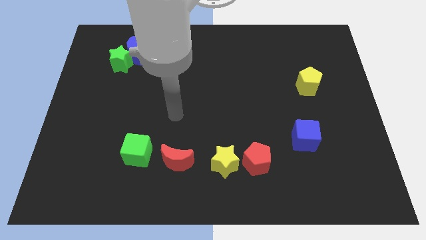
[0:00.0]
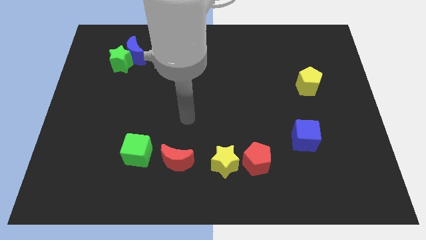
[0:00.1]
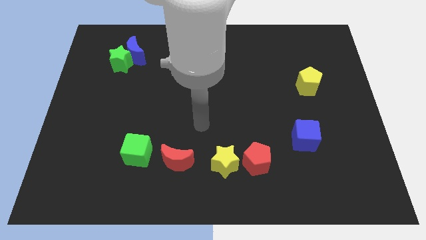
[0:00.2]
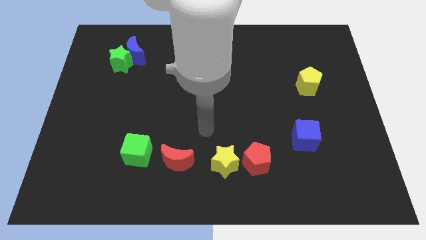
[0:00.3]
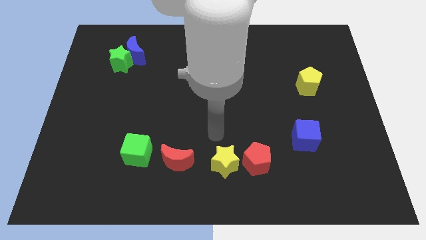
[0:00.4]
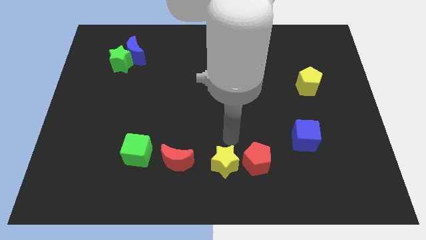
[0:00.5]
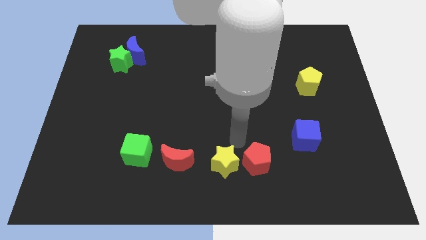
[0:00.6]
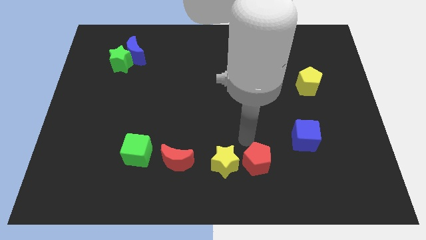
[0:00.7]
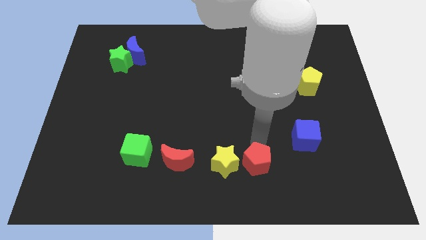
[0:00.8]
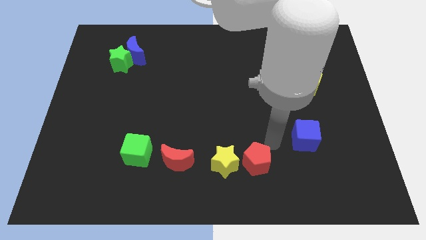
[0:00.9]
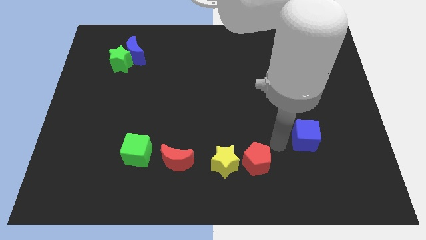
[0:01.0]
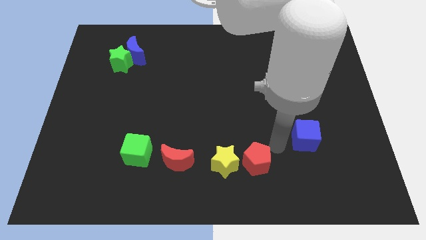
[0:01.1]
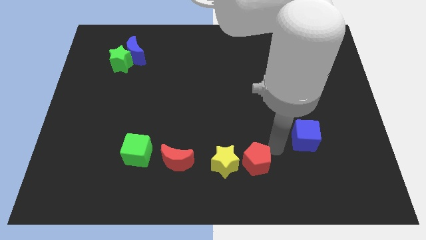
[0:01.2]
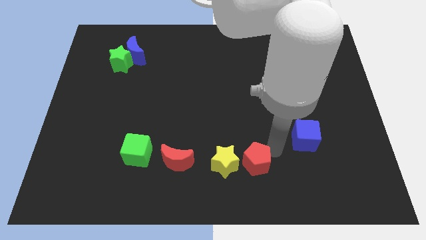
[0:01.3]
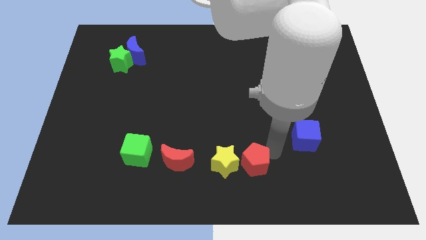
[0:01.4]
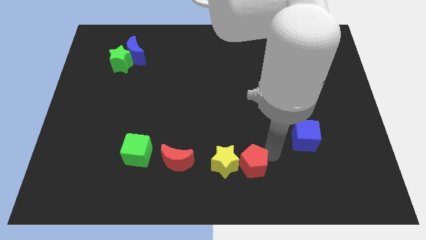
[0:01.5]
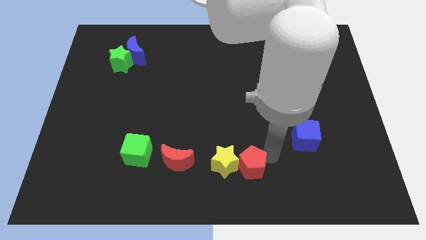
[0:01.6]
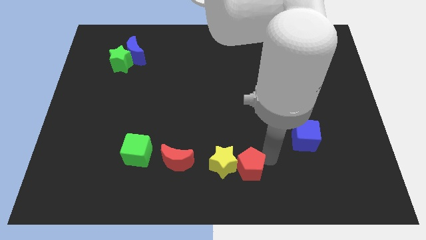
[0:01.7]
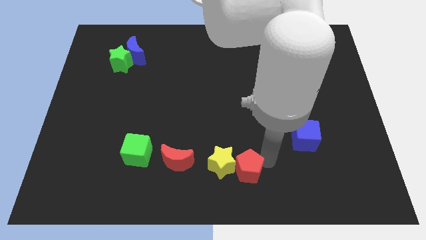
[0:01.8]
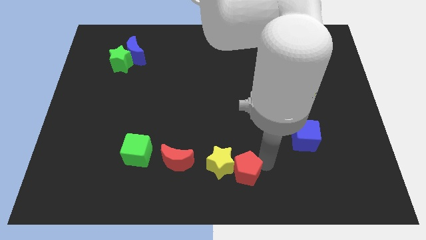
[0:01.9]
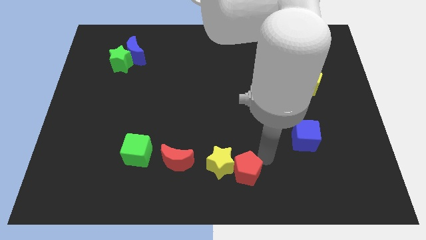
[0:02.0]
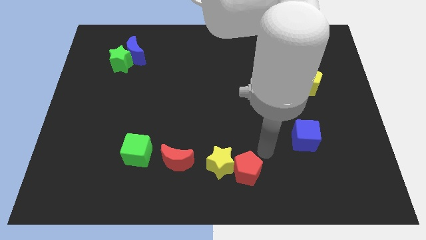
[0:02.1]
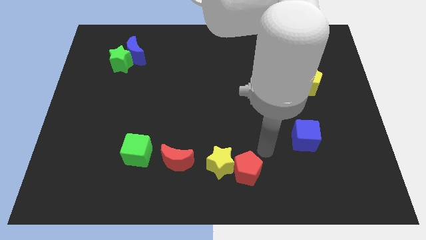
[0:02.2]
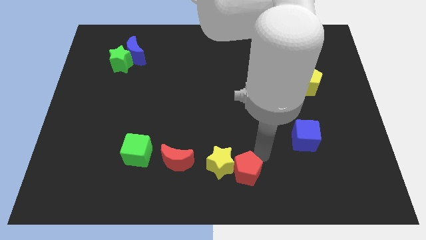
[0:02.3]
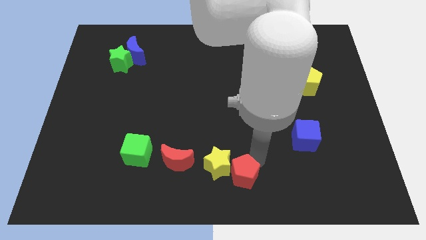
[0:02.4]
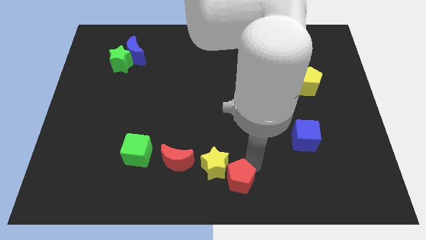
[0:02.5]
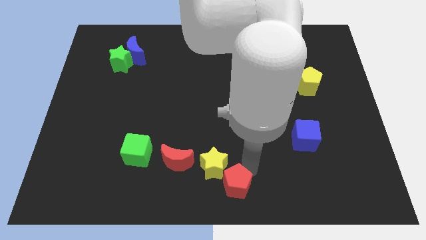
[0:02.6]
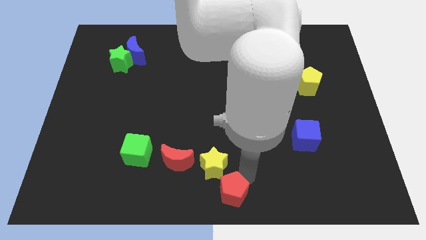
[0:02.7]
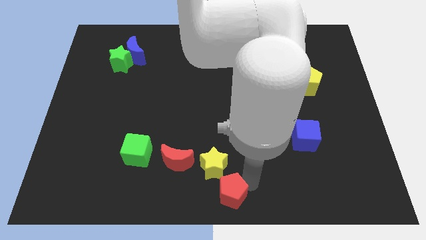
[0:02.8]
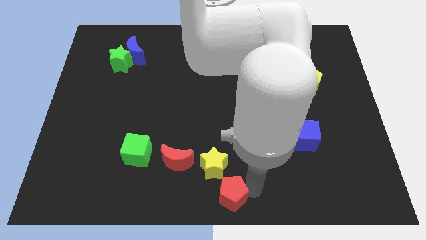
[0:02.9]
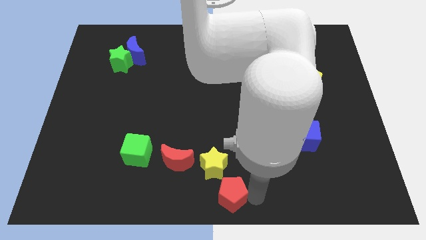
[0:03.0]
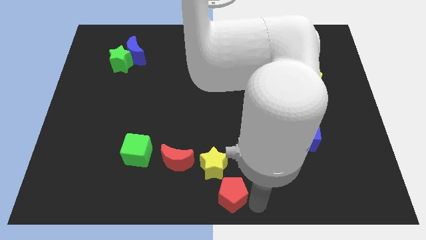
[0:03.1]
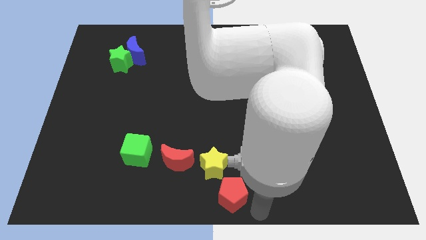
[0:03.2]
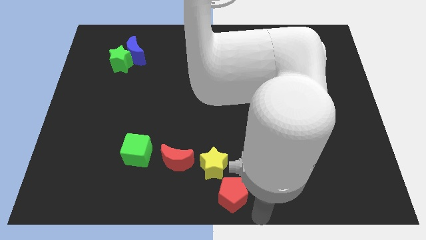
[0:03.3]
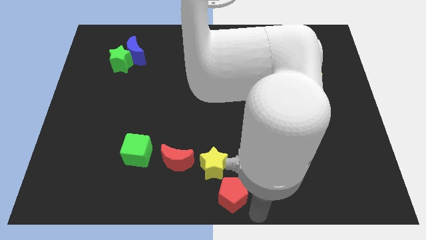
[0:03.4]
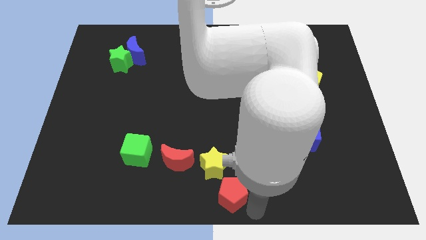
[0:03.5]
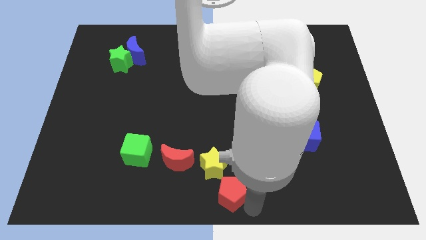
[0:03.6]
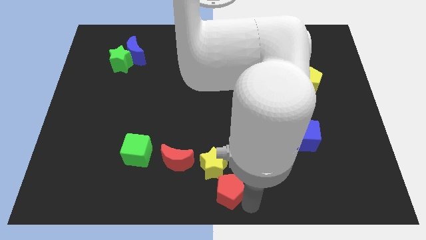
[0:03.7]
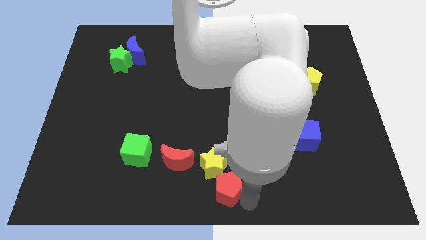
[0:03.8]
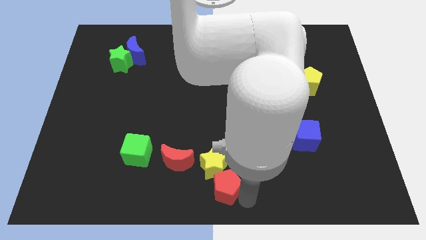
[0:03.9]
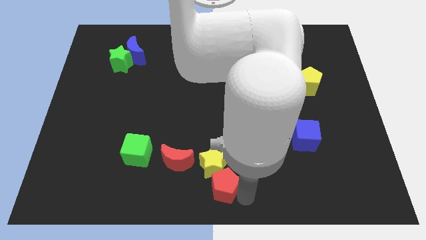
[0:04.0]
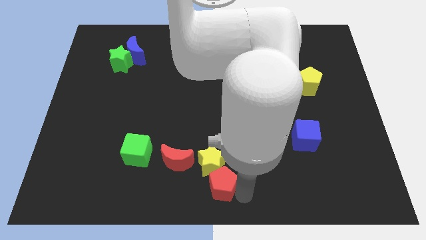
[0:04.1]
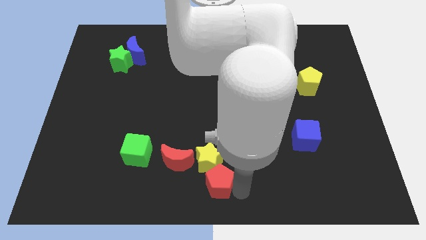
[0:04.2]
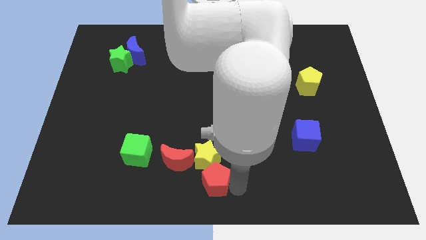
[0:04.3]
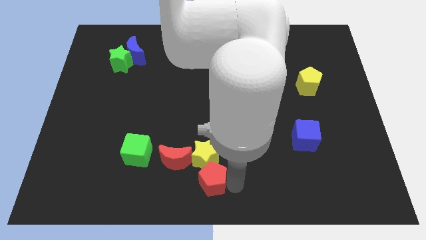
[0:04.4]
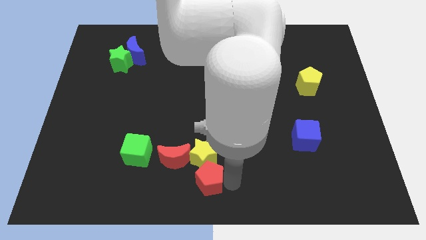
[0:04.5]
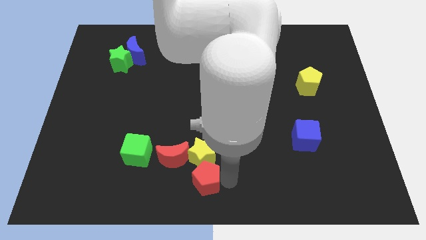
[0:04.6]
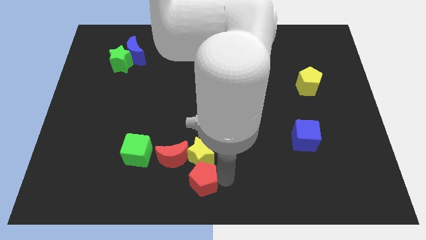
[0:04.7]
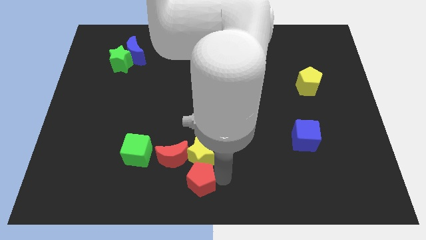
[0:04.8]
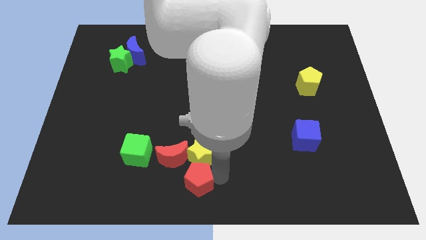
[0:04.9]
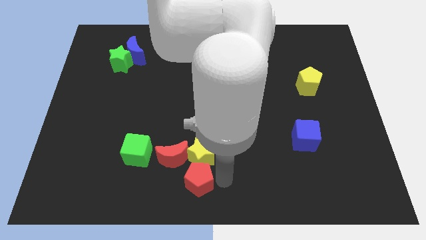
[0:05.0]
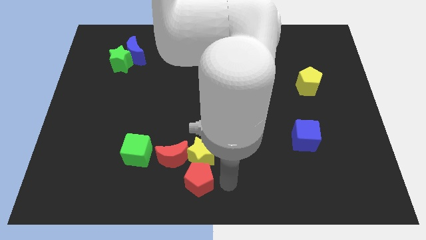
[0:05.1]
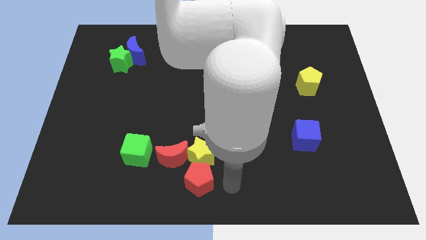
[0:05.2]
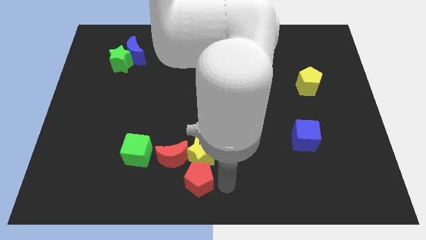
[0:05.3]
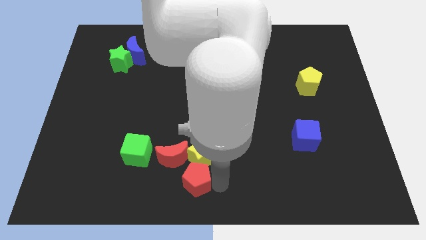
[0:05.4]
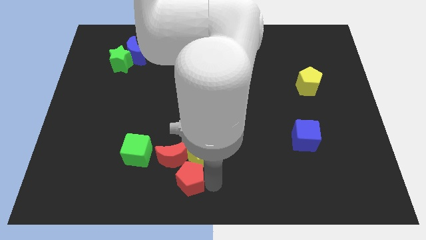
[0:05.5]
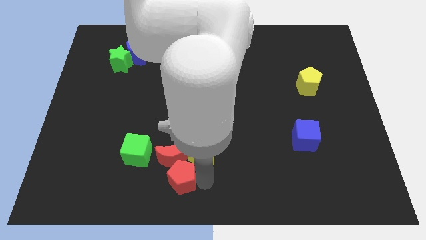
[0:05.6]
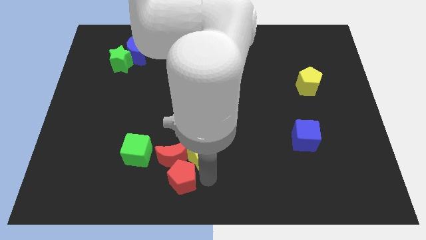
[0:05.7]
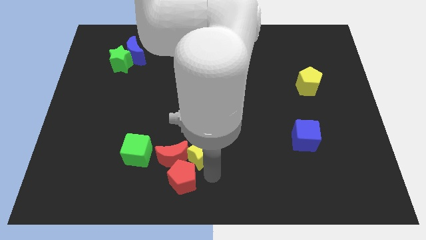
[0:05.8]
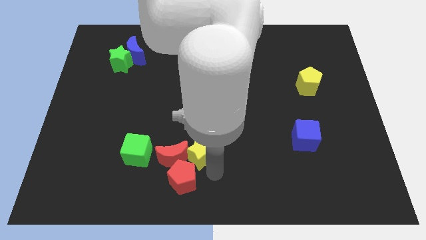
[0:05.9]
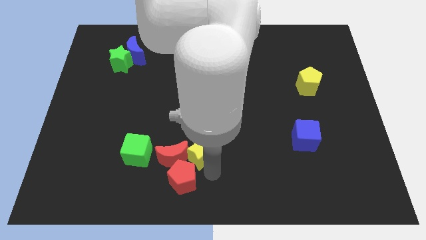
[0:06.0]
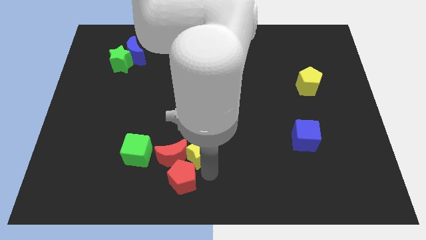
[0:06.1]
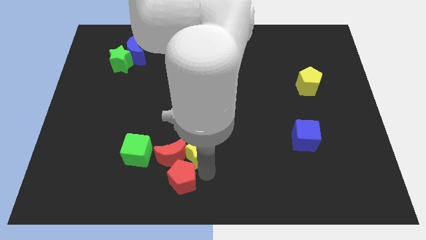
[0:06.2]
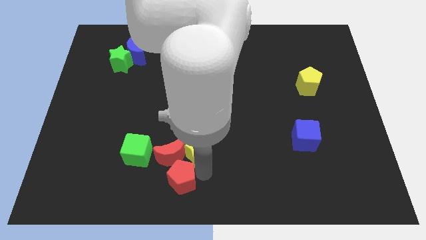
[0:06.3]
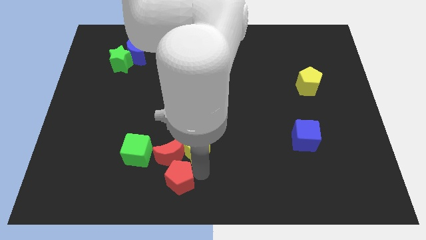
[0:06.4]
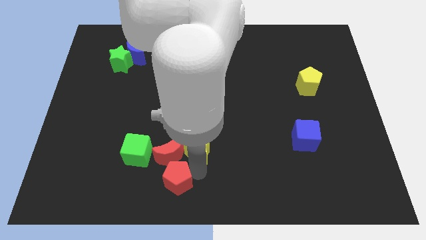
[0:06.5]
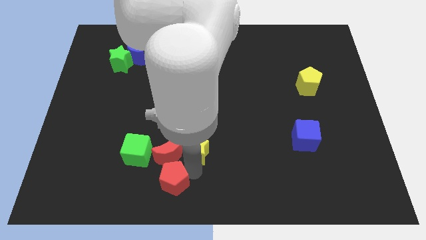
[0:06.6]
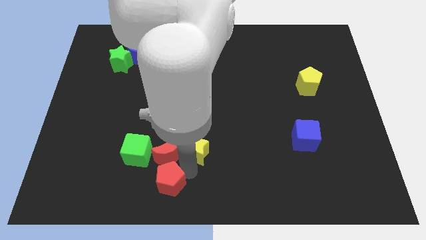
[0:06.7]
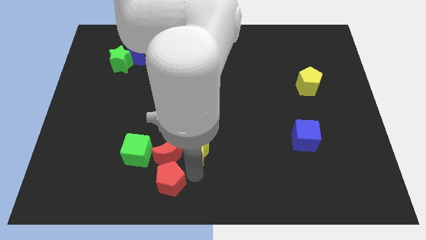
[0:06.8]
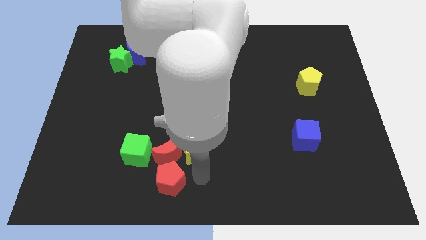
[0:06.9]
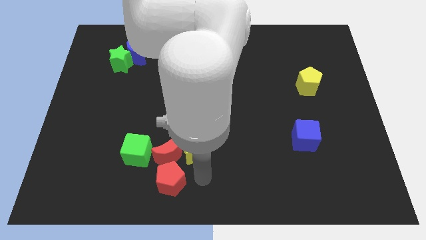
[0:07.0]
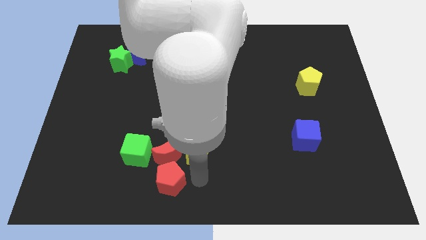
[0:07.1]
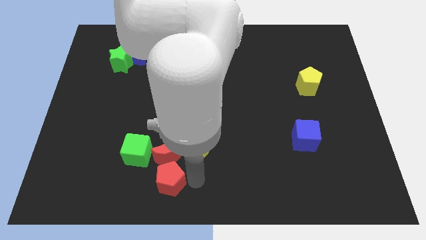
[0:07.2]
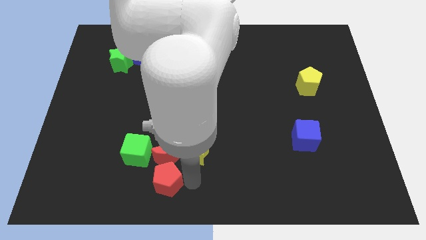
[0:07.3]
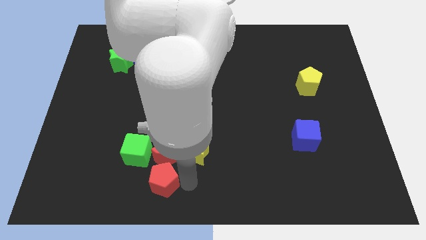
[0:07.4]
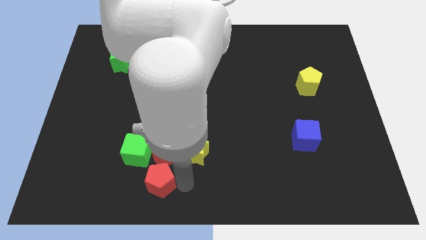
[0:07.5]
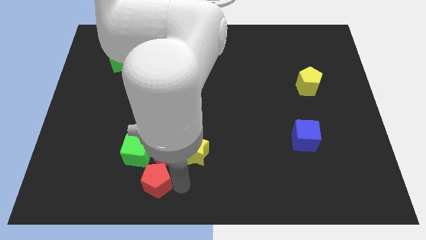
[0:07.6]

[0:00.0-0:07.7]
move the red pentagon to the left
